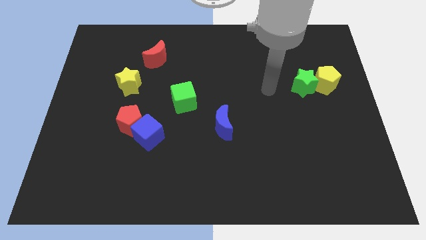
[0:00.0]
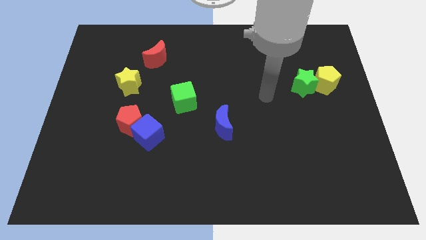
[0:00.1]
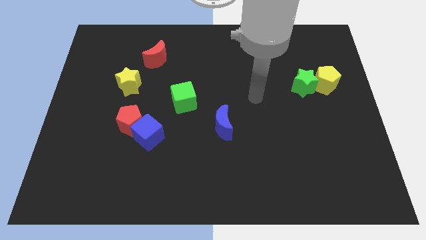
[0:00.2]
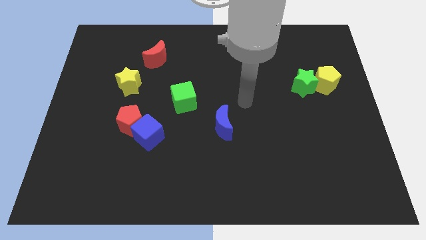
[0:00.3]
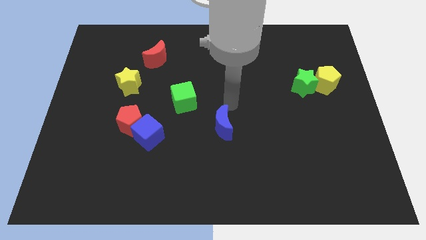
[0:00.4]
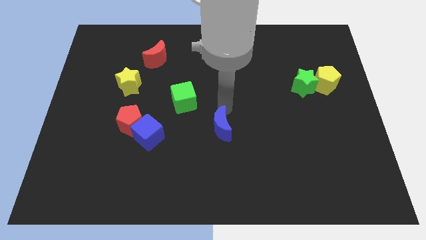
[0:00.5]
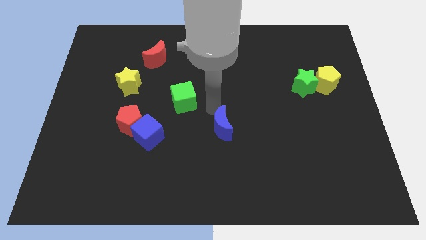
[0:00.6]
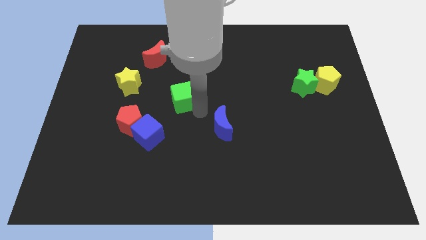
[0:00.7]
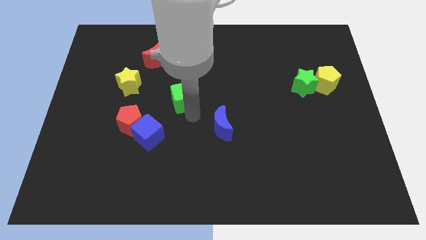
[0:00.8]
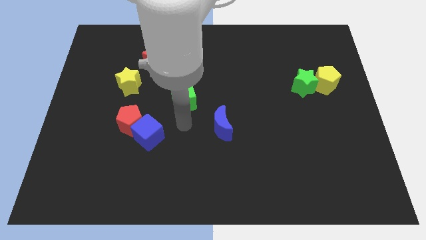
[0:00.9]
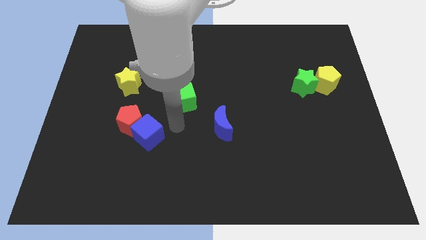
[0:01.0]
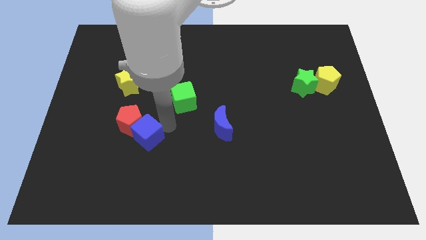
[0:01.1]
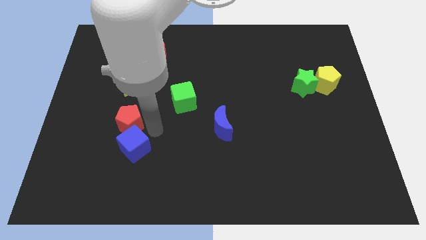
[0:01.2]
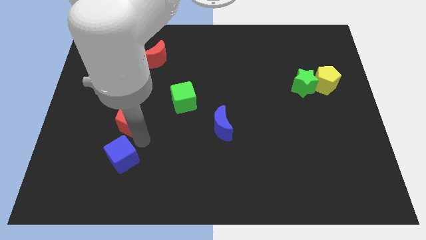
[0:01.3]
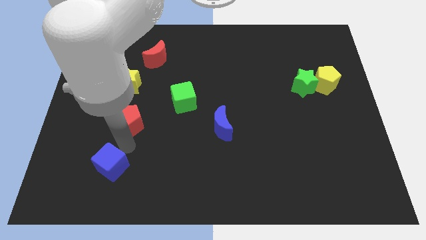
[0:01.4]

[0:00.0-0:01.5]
pull the red pentagon apart from the blue cube

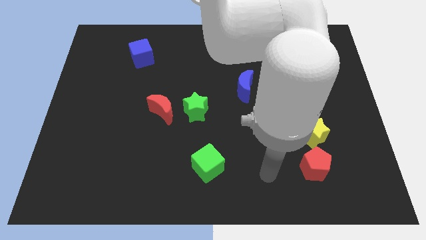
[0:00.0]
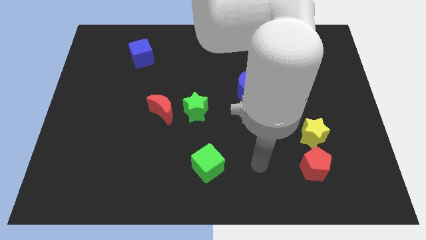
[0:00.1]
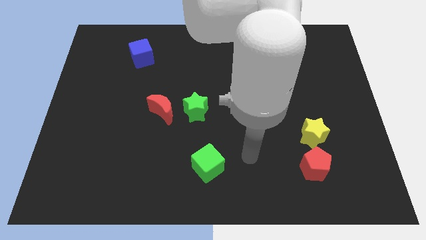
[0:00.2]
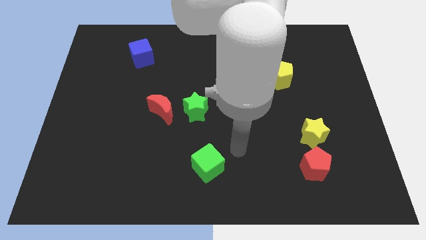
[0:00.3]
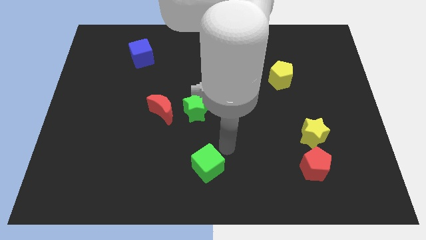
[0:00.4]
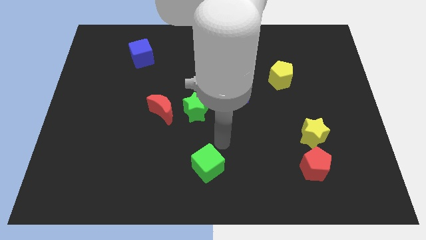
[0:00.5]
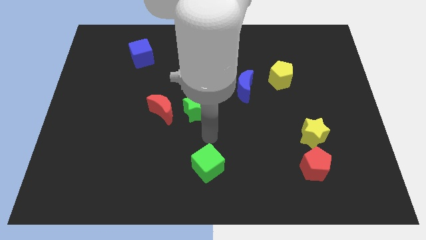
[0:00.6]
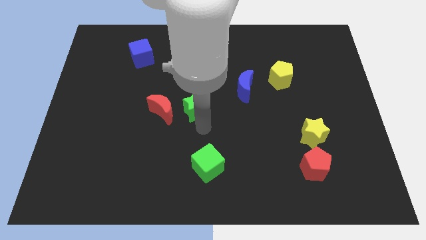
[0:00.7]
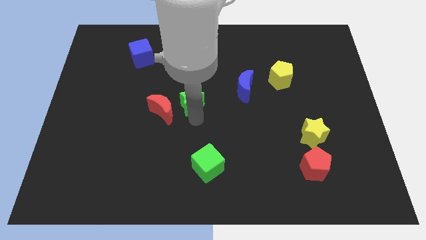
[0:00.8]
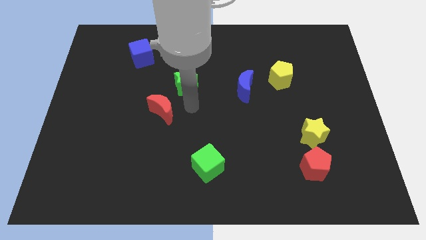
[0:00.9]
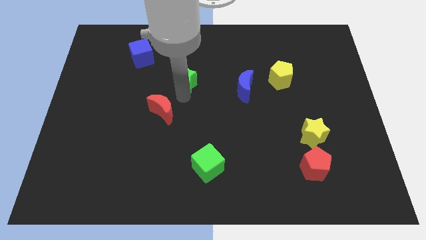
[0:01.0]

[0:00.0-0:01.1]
separate the red moon from the green star

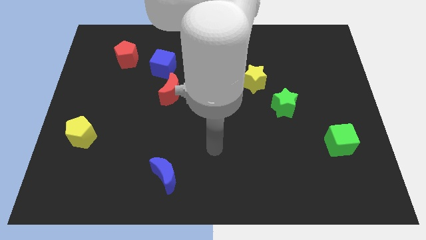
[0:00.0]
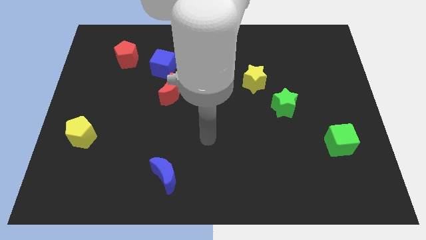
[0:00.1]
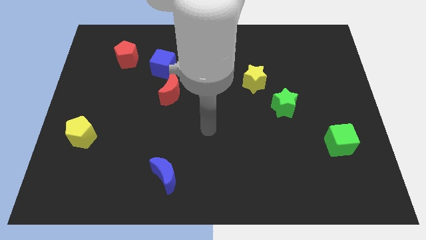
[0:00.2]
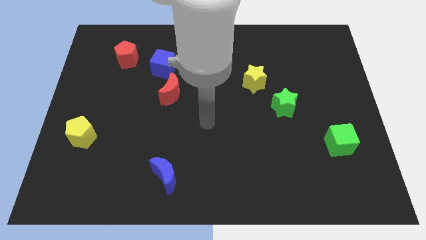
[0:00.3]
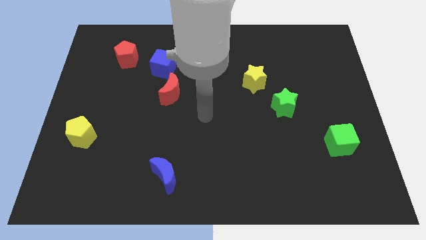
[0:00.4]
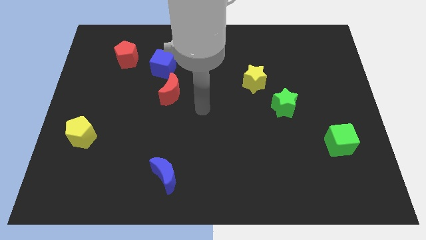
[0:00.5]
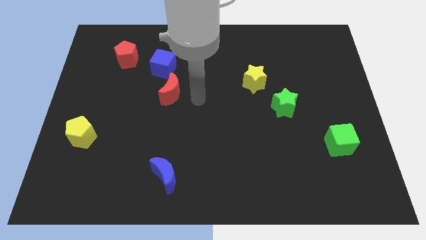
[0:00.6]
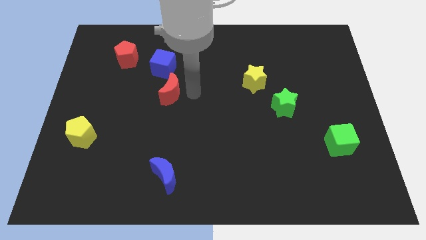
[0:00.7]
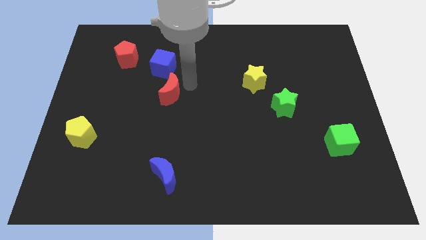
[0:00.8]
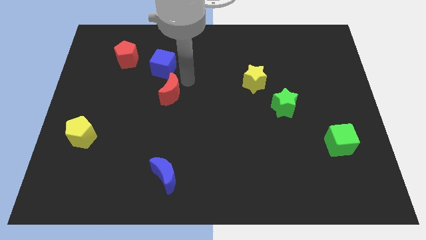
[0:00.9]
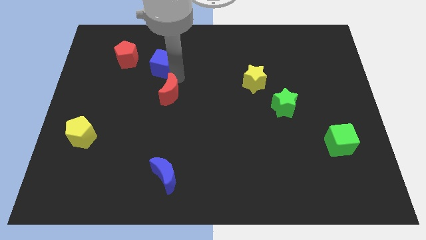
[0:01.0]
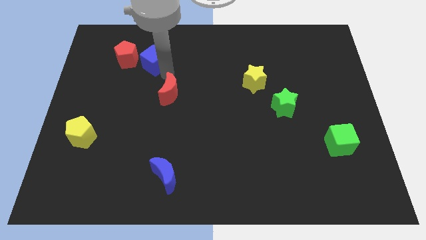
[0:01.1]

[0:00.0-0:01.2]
move the red moon away from the blue cube

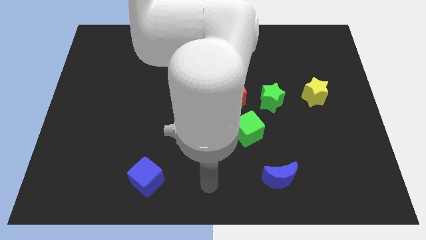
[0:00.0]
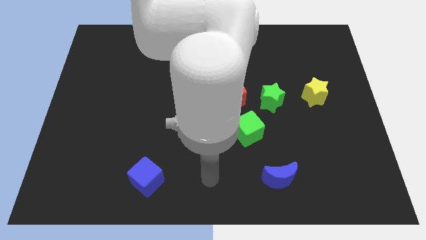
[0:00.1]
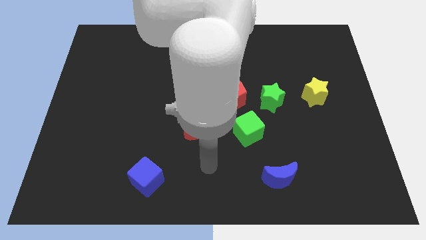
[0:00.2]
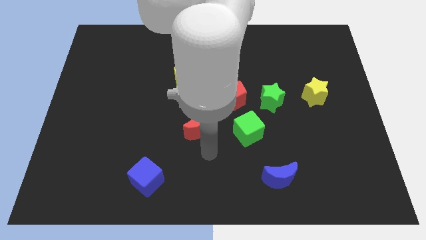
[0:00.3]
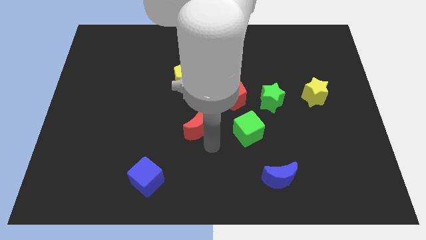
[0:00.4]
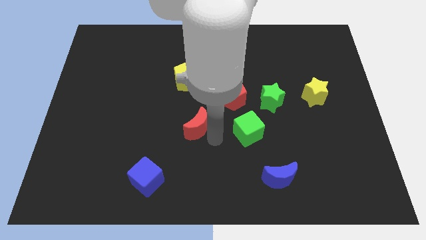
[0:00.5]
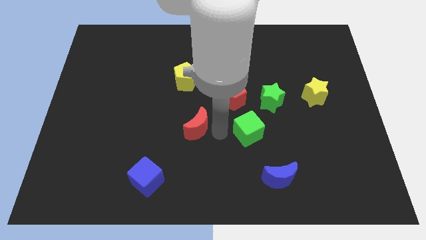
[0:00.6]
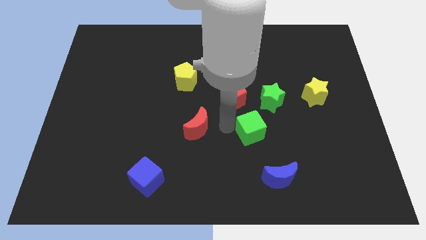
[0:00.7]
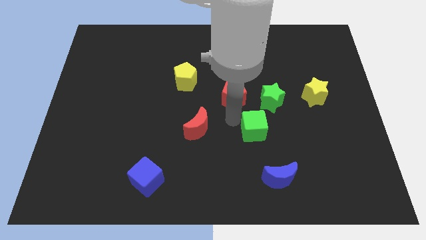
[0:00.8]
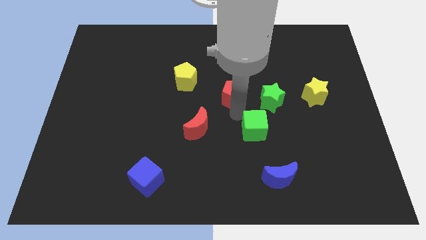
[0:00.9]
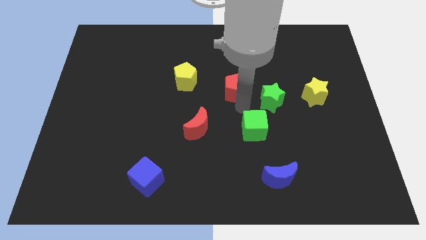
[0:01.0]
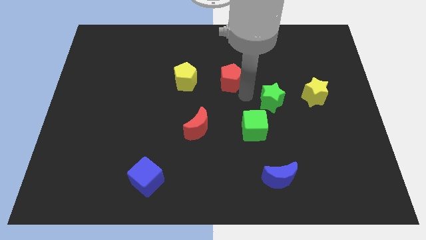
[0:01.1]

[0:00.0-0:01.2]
pull the green star apart from the red pentagon

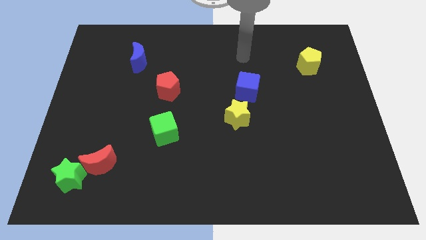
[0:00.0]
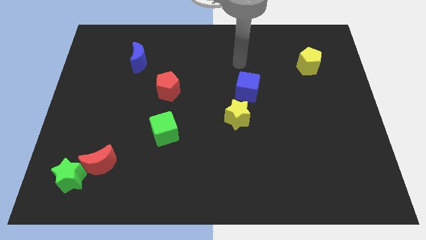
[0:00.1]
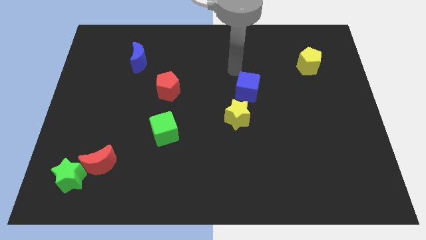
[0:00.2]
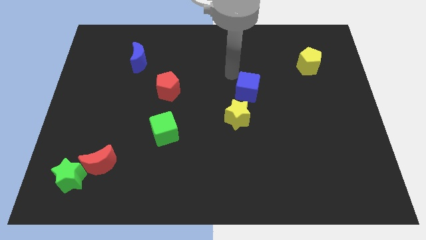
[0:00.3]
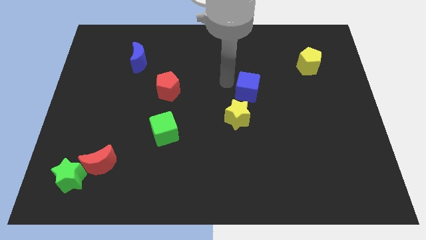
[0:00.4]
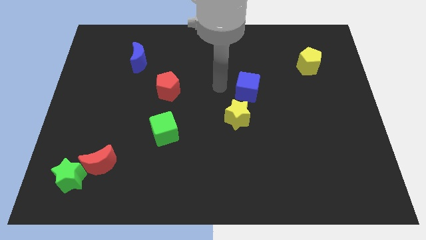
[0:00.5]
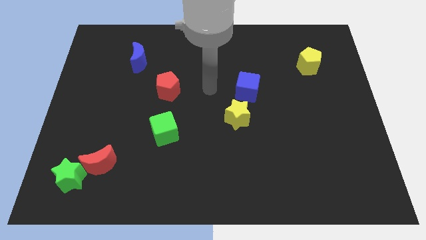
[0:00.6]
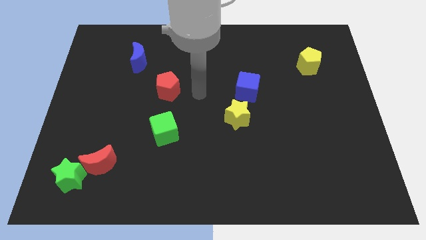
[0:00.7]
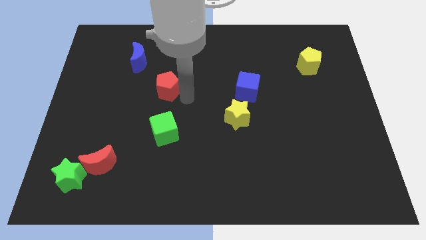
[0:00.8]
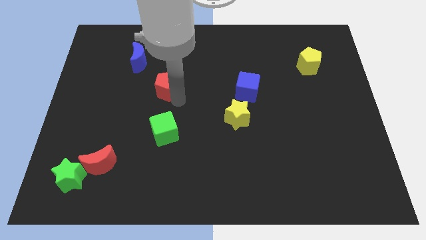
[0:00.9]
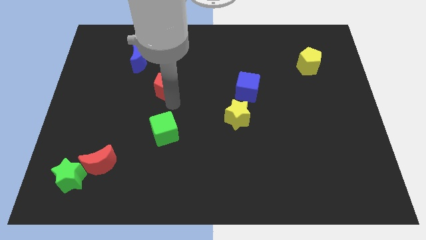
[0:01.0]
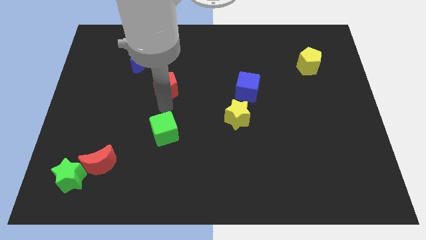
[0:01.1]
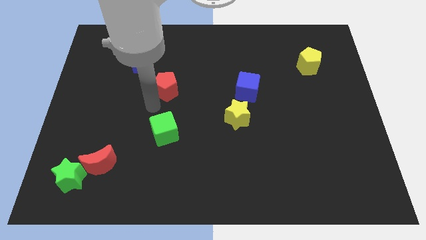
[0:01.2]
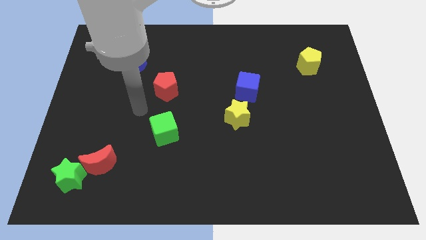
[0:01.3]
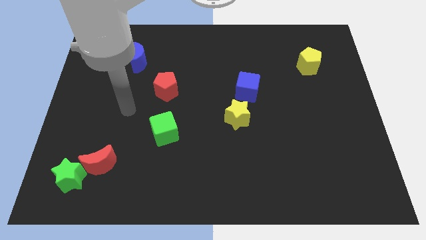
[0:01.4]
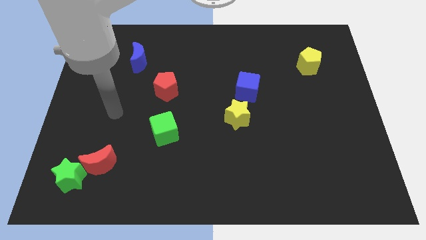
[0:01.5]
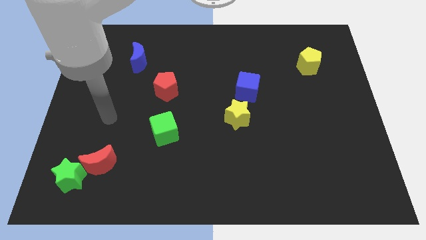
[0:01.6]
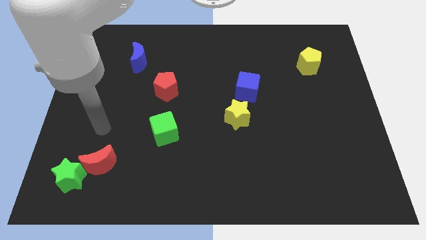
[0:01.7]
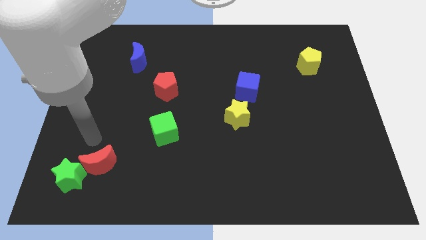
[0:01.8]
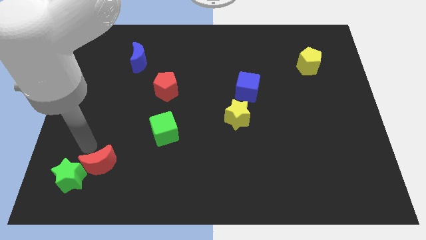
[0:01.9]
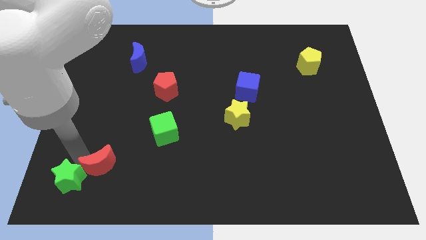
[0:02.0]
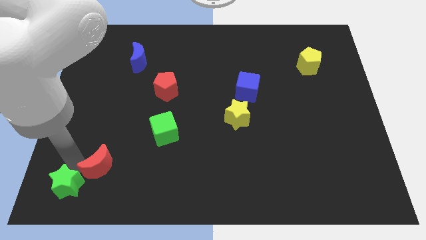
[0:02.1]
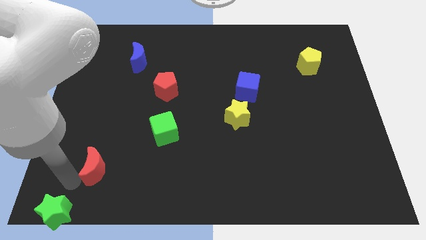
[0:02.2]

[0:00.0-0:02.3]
move the red moon away from the green star

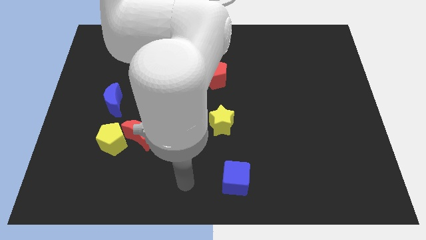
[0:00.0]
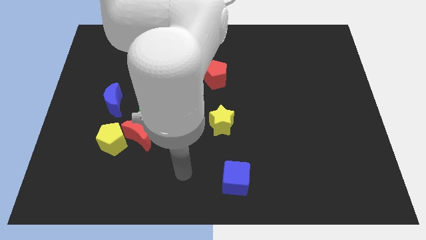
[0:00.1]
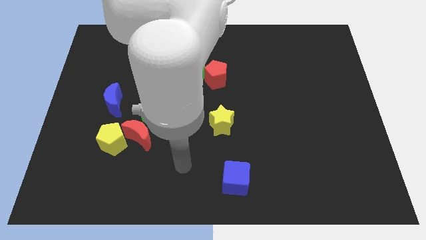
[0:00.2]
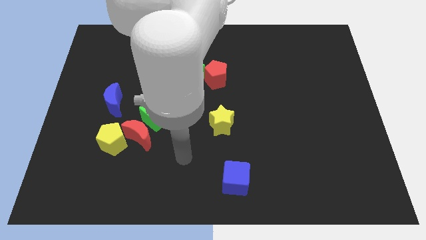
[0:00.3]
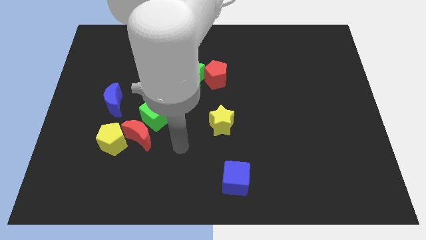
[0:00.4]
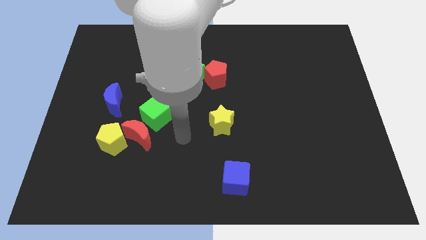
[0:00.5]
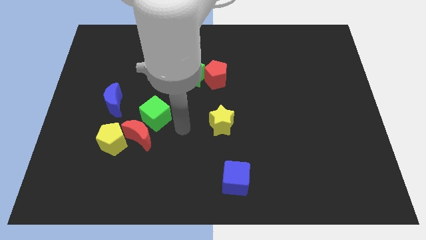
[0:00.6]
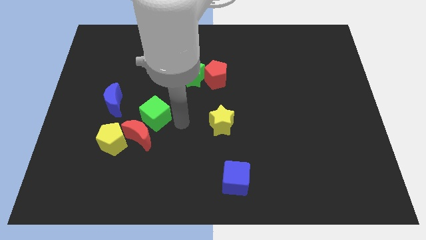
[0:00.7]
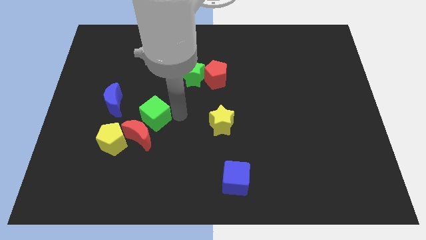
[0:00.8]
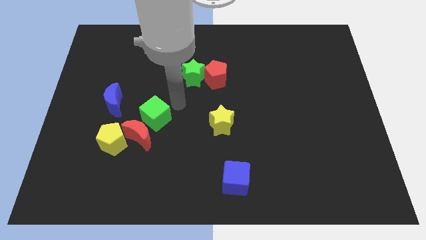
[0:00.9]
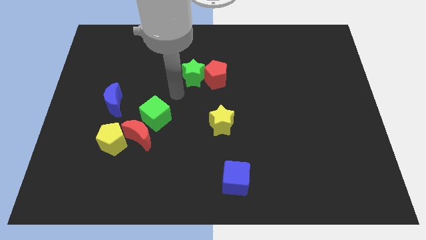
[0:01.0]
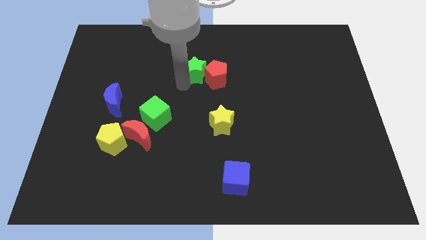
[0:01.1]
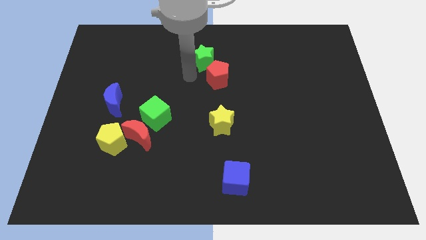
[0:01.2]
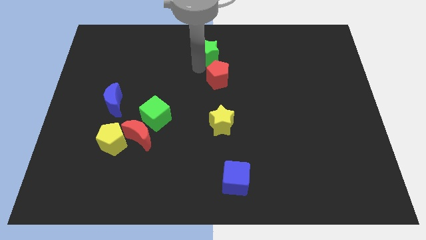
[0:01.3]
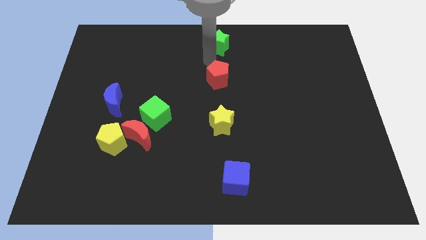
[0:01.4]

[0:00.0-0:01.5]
separate the red pentagon from the green star

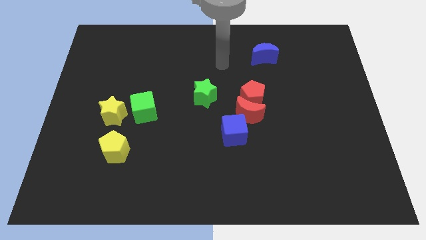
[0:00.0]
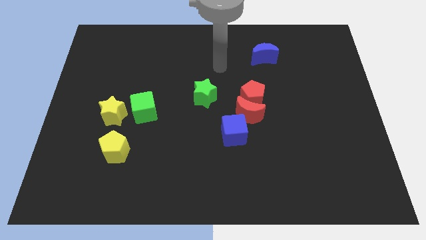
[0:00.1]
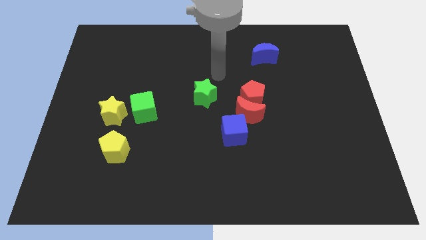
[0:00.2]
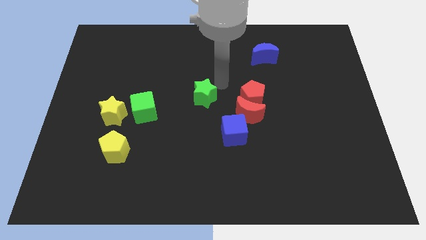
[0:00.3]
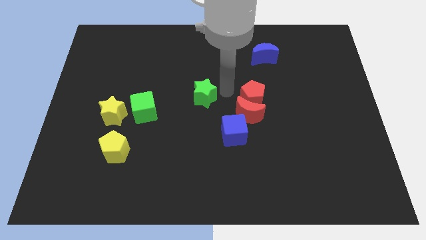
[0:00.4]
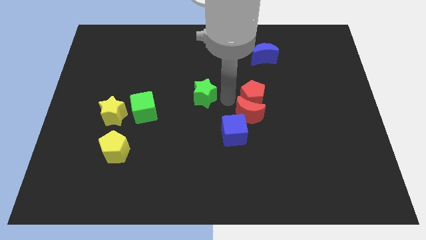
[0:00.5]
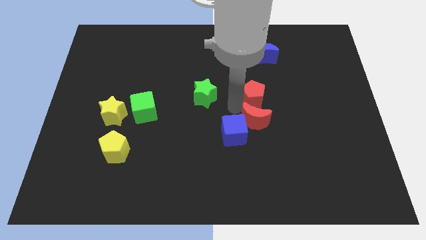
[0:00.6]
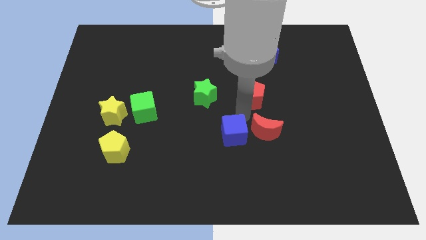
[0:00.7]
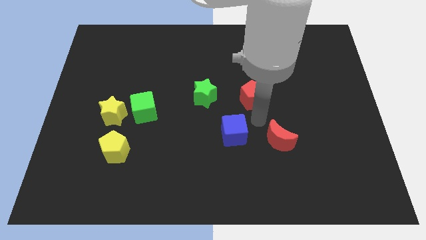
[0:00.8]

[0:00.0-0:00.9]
separate the red pentagon from the red moon
